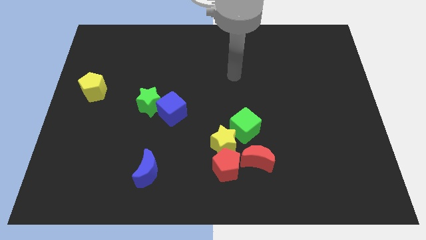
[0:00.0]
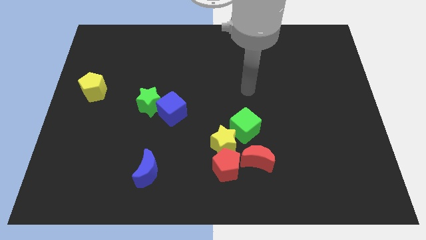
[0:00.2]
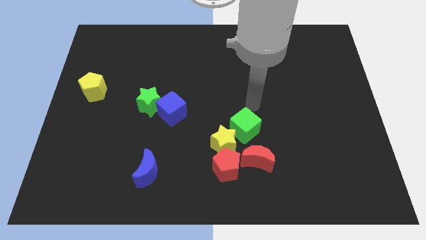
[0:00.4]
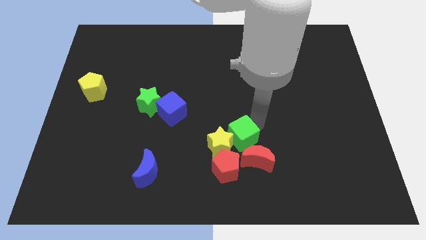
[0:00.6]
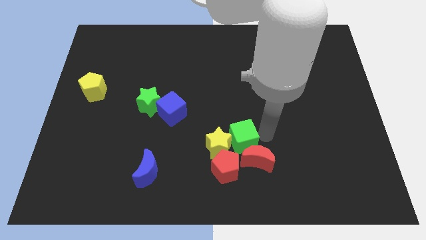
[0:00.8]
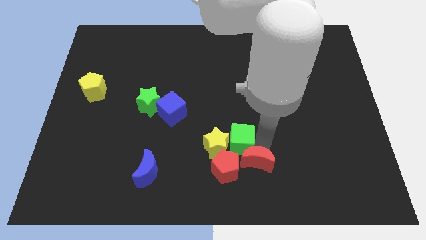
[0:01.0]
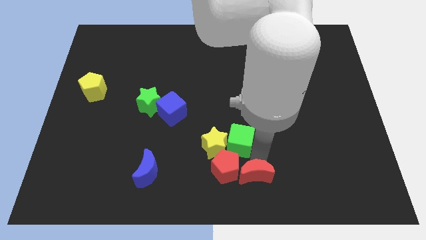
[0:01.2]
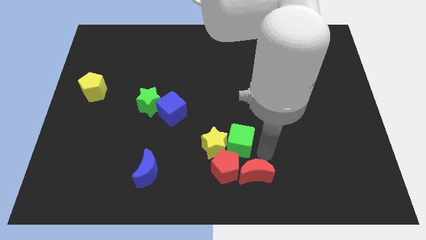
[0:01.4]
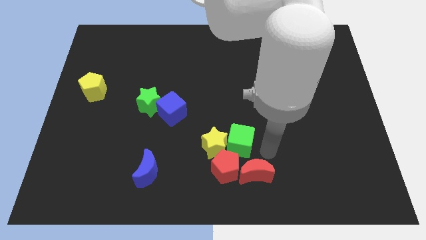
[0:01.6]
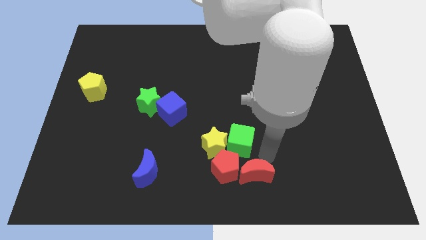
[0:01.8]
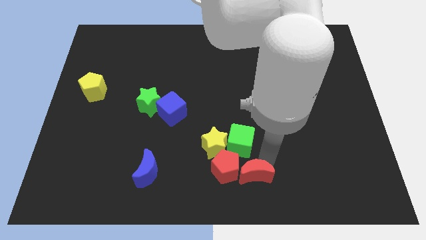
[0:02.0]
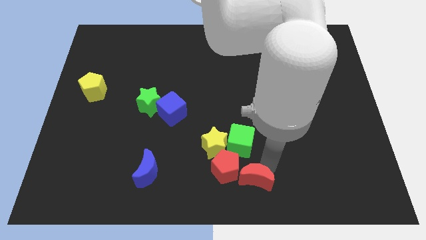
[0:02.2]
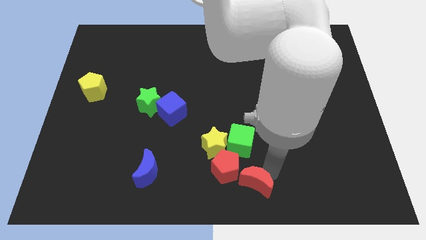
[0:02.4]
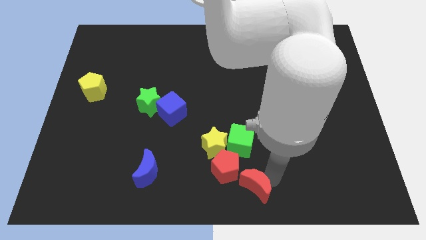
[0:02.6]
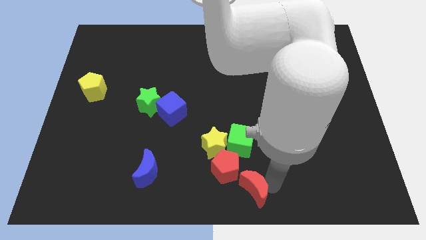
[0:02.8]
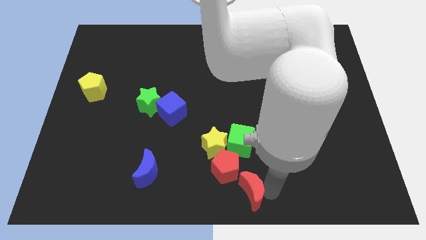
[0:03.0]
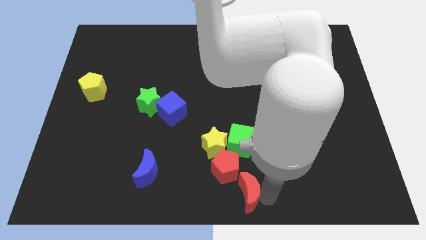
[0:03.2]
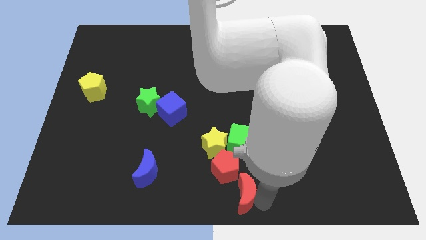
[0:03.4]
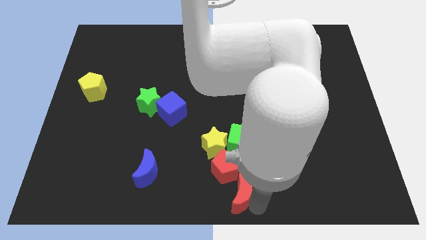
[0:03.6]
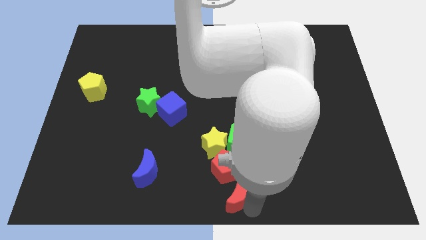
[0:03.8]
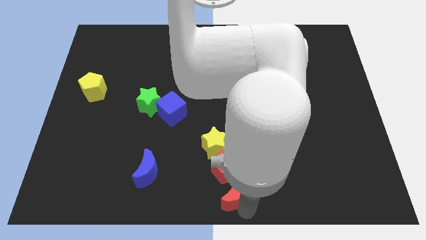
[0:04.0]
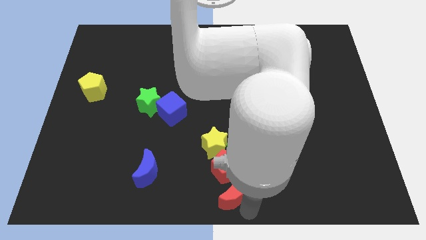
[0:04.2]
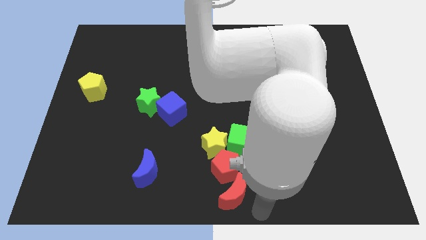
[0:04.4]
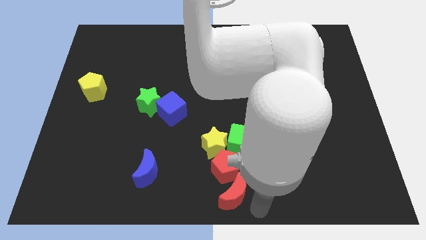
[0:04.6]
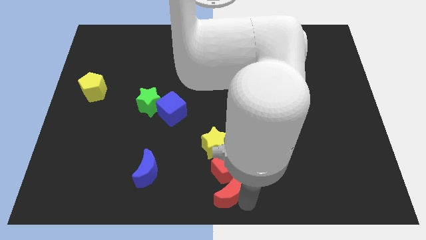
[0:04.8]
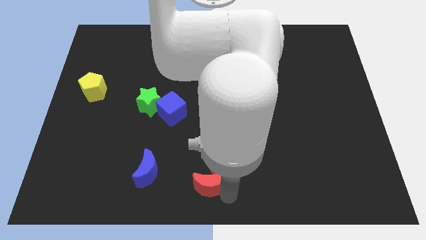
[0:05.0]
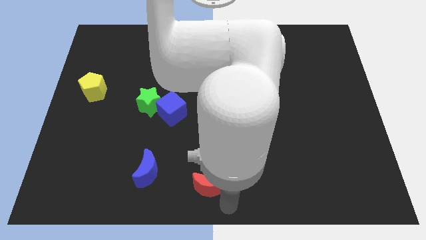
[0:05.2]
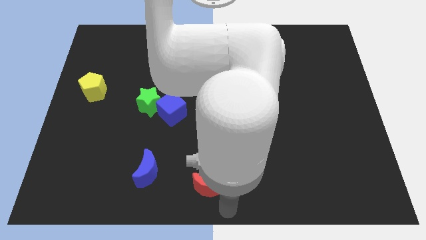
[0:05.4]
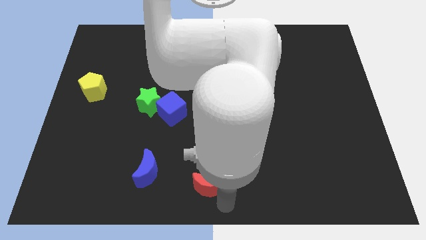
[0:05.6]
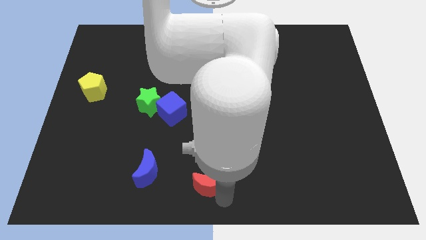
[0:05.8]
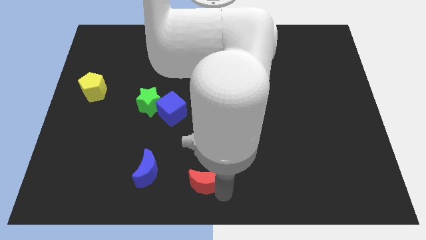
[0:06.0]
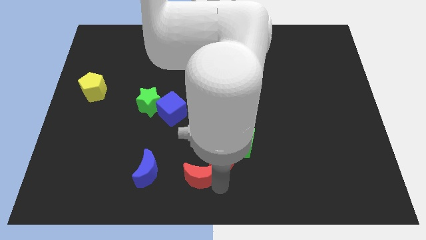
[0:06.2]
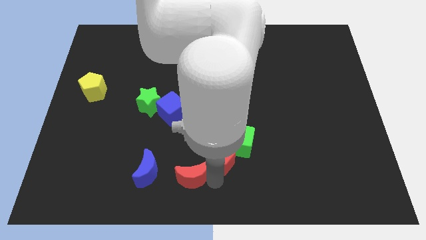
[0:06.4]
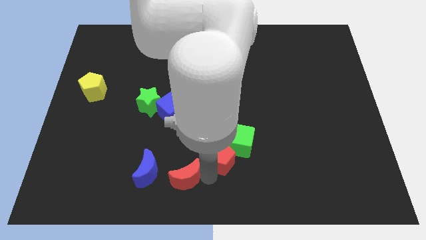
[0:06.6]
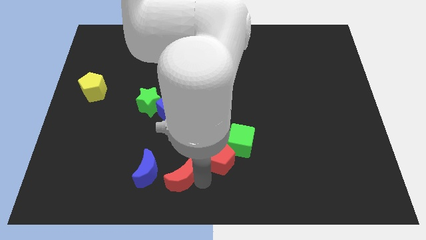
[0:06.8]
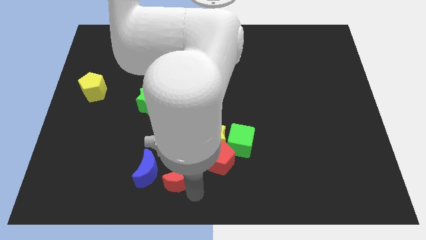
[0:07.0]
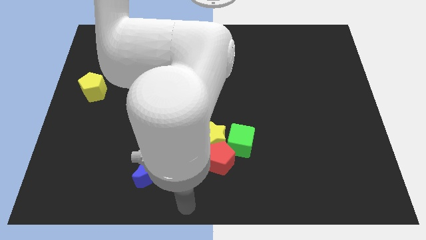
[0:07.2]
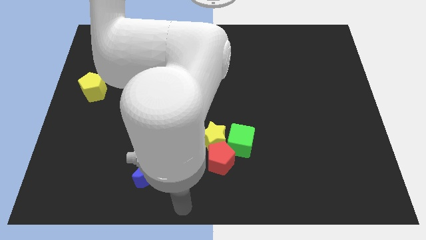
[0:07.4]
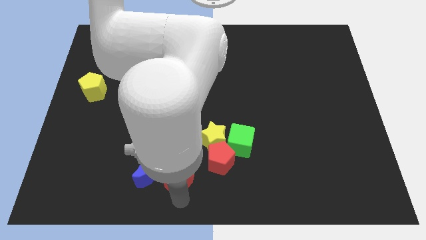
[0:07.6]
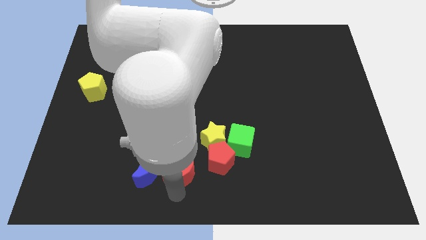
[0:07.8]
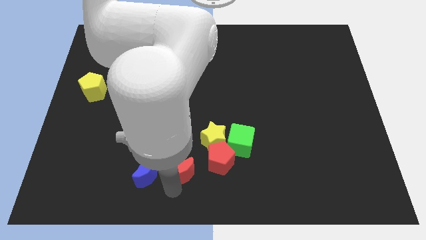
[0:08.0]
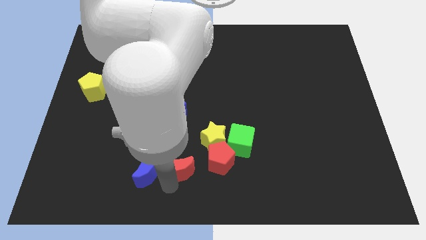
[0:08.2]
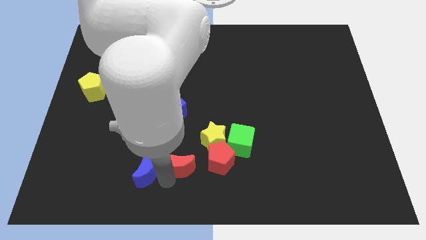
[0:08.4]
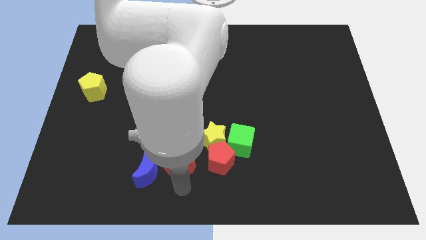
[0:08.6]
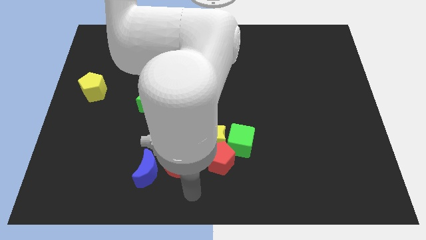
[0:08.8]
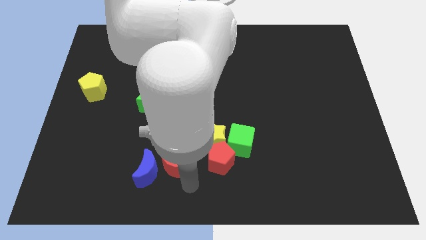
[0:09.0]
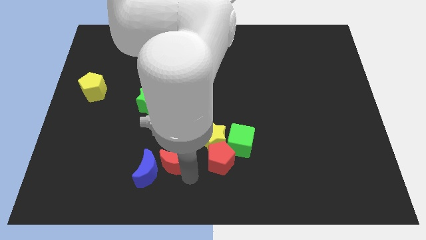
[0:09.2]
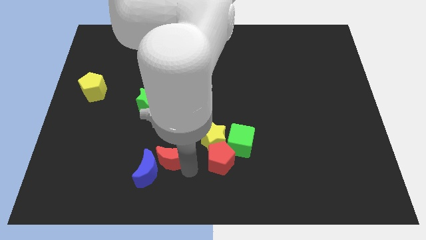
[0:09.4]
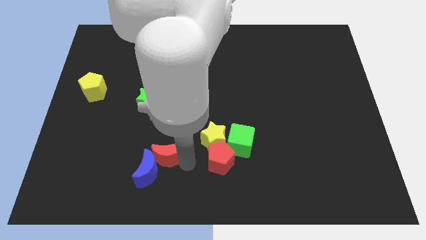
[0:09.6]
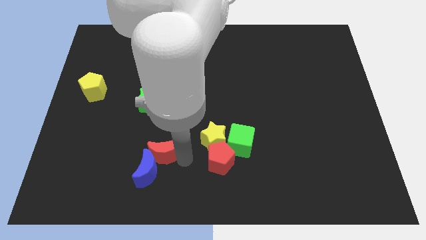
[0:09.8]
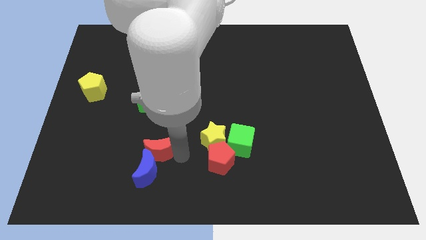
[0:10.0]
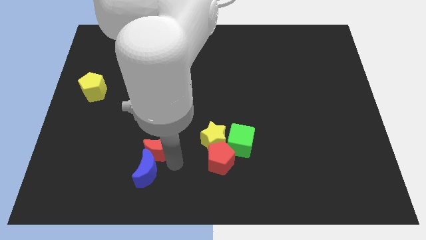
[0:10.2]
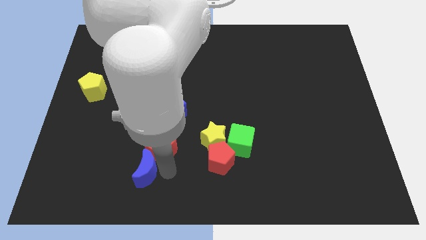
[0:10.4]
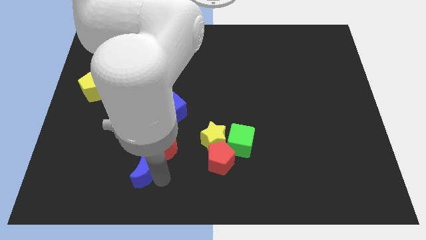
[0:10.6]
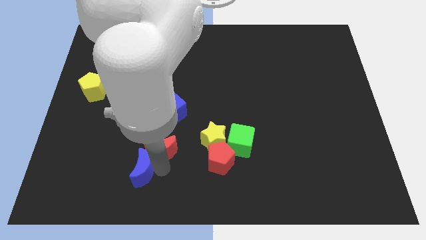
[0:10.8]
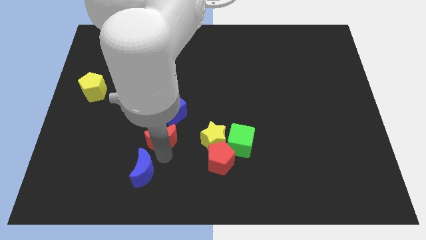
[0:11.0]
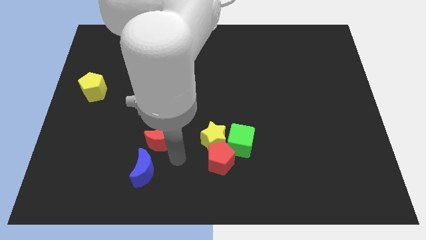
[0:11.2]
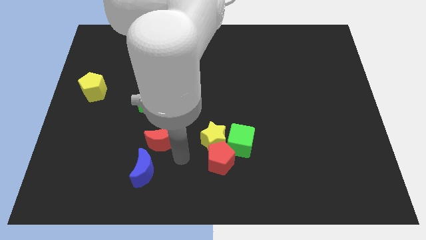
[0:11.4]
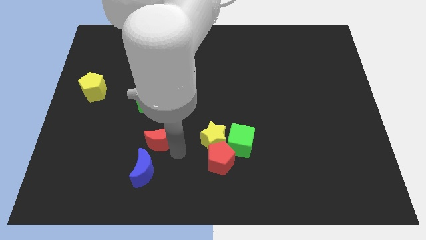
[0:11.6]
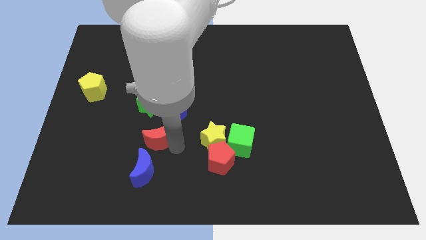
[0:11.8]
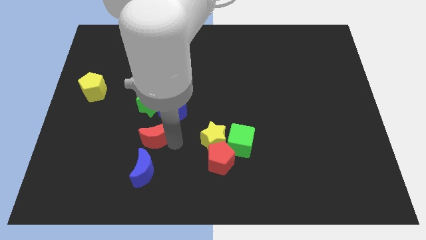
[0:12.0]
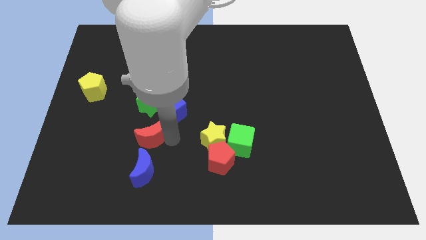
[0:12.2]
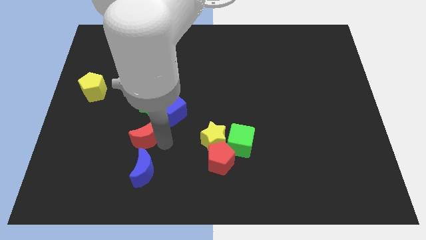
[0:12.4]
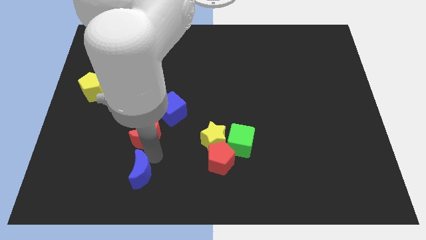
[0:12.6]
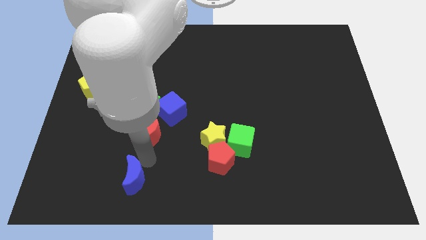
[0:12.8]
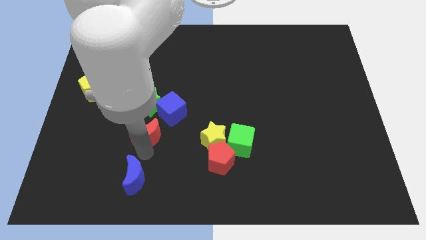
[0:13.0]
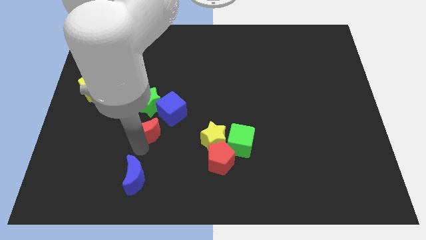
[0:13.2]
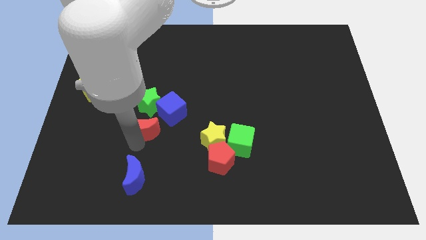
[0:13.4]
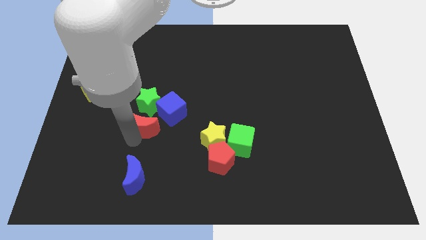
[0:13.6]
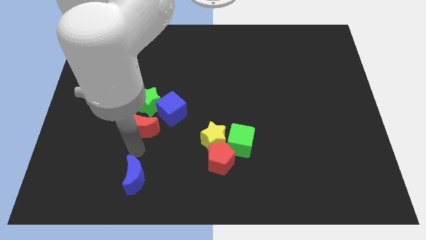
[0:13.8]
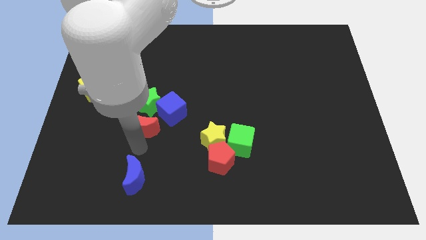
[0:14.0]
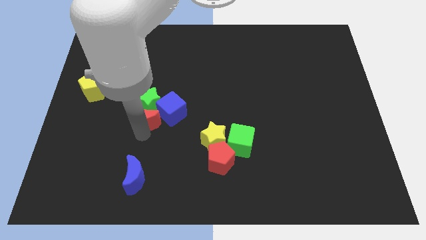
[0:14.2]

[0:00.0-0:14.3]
slide the red moon towards the green star

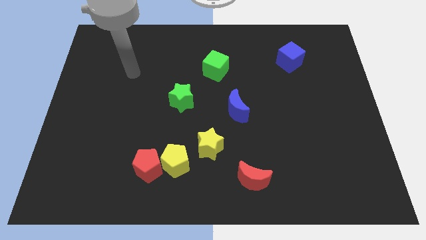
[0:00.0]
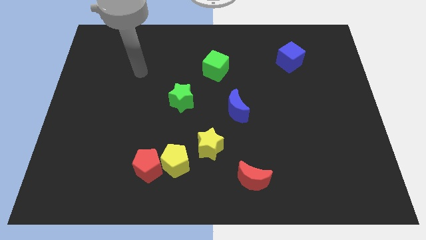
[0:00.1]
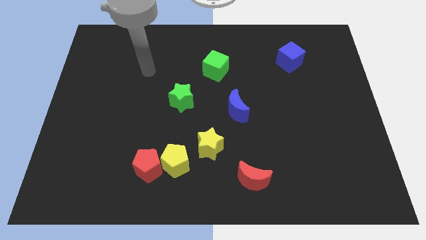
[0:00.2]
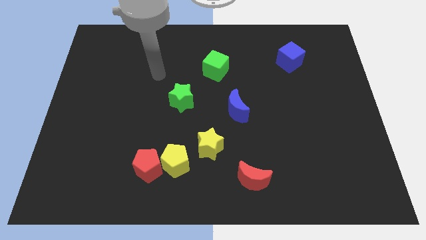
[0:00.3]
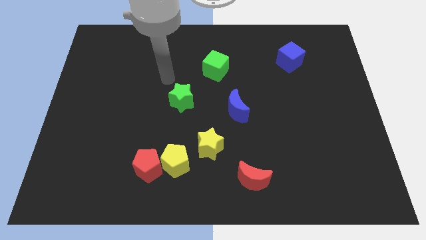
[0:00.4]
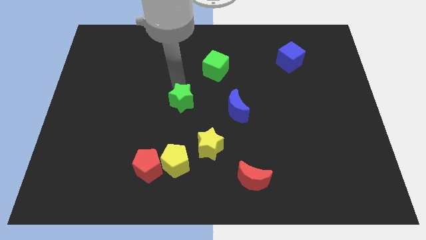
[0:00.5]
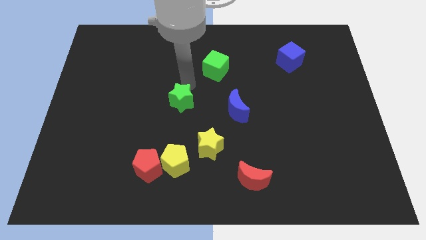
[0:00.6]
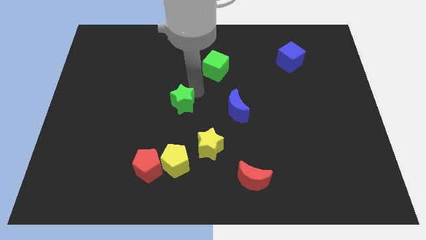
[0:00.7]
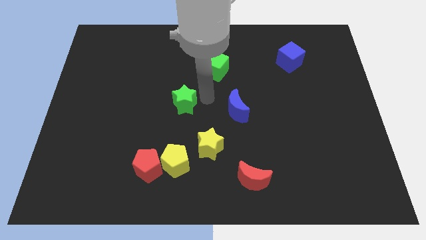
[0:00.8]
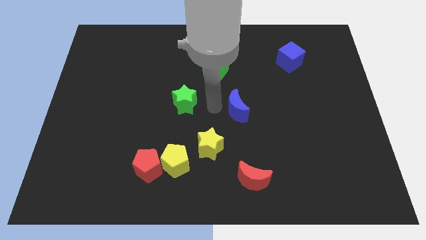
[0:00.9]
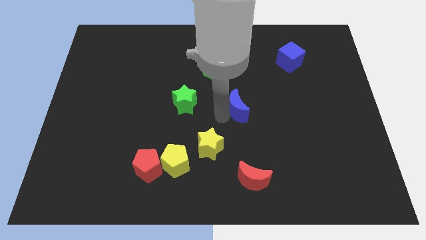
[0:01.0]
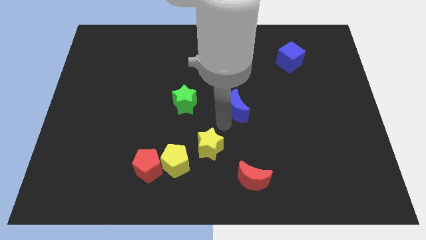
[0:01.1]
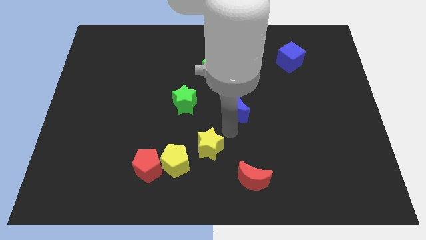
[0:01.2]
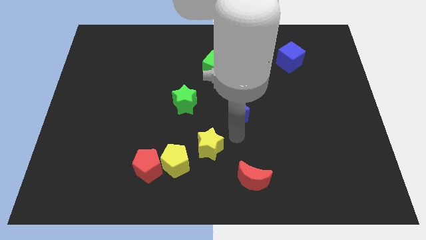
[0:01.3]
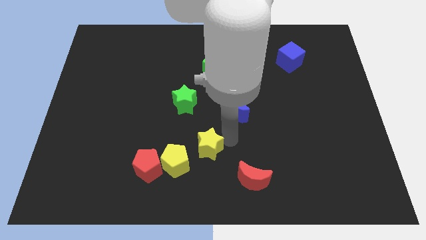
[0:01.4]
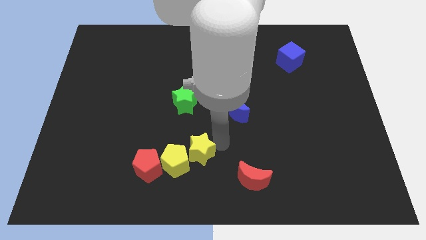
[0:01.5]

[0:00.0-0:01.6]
slide the yellow star close to the yellow pentagon
